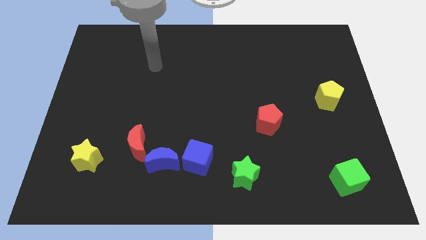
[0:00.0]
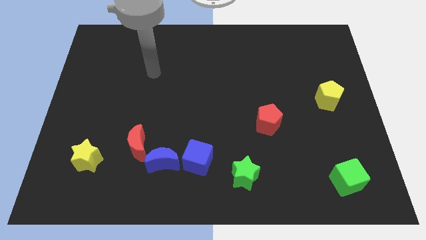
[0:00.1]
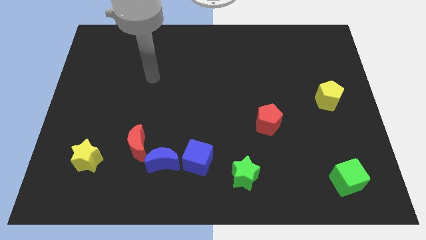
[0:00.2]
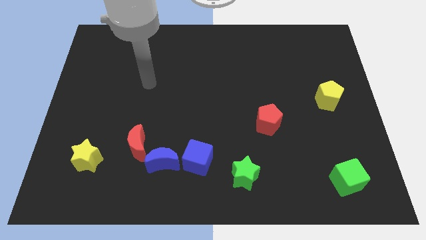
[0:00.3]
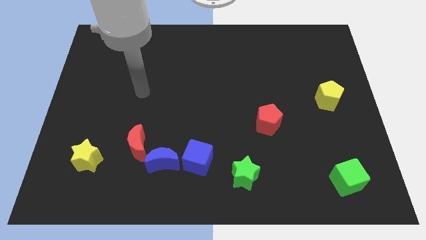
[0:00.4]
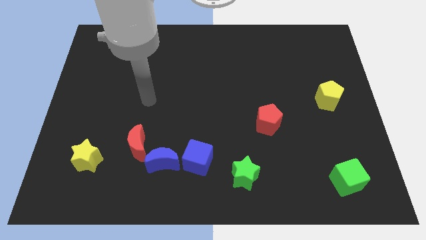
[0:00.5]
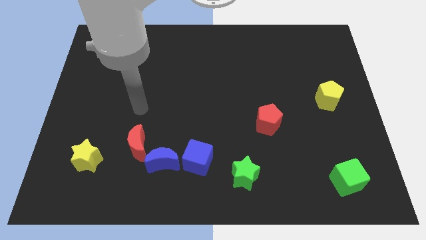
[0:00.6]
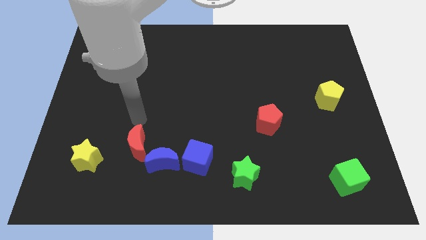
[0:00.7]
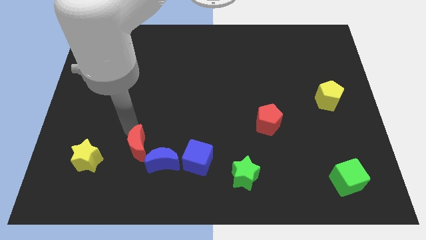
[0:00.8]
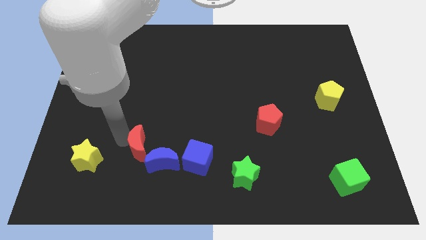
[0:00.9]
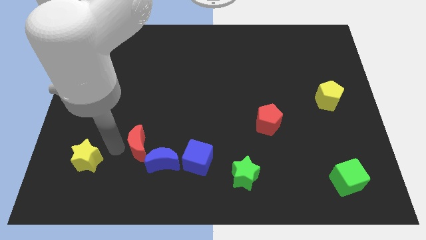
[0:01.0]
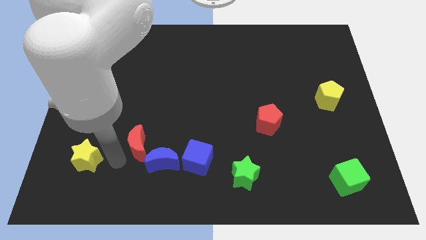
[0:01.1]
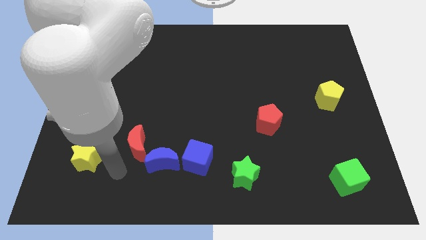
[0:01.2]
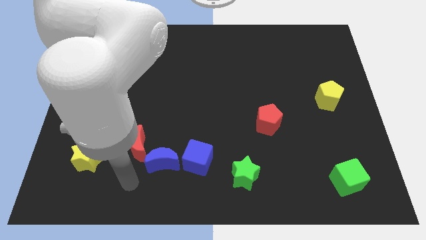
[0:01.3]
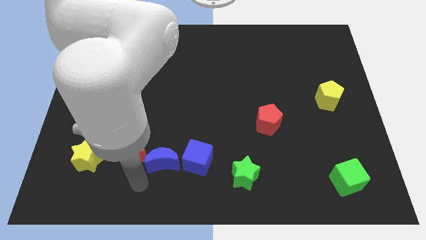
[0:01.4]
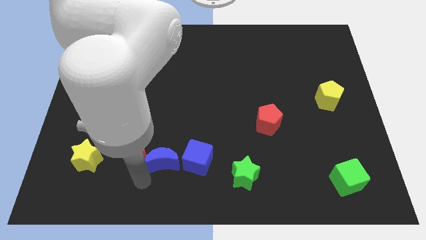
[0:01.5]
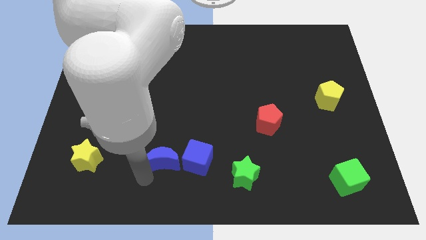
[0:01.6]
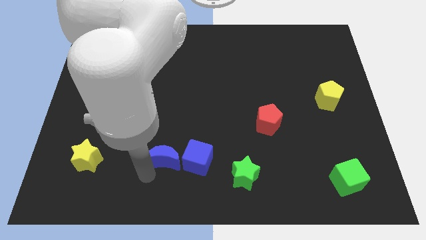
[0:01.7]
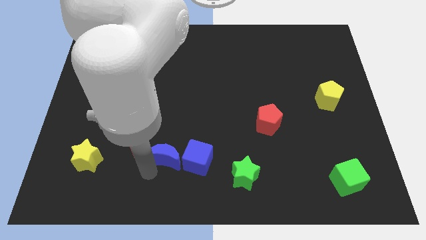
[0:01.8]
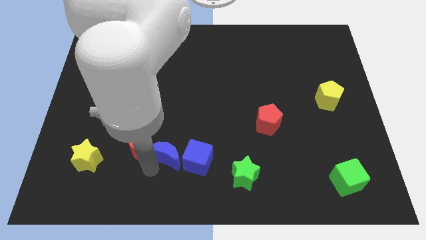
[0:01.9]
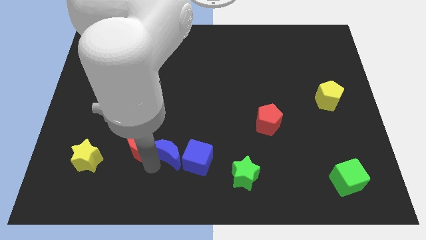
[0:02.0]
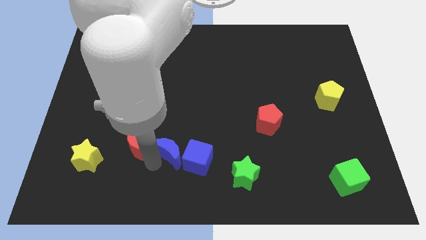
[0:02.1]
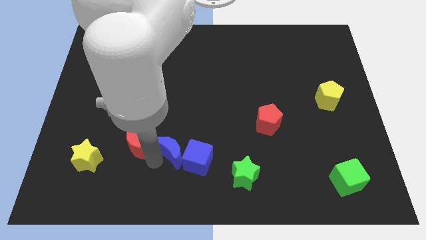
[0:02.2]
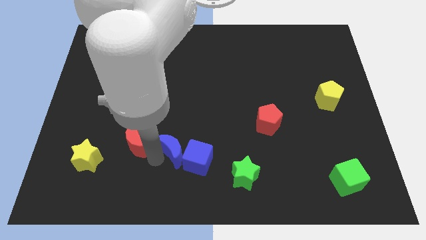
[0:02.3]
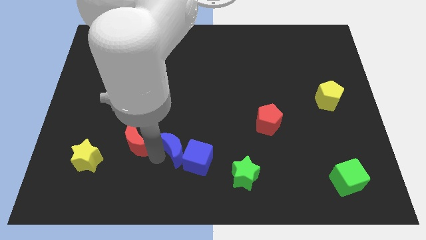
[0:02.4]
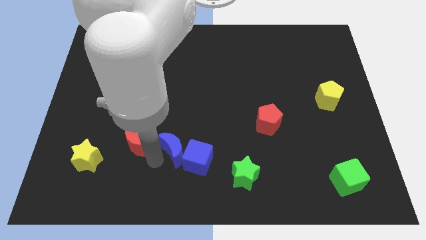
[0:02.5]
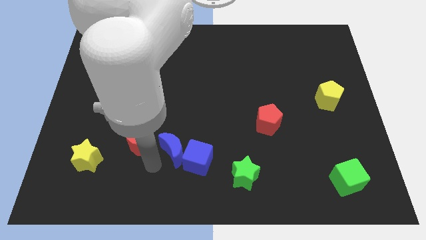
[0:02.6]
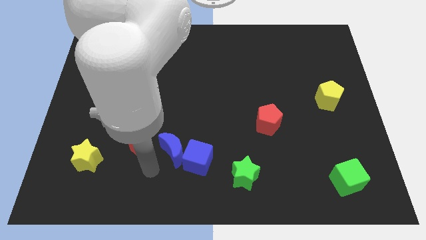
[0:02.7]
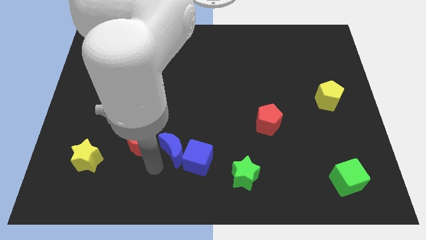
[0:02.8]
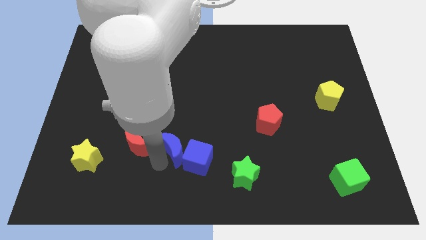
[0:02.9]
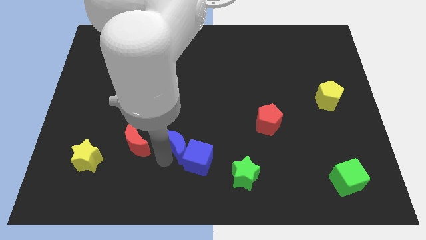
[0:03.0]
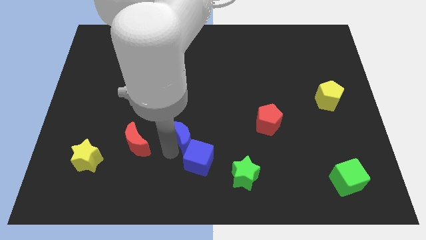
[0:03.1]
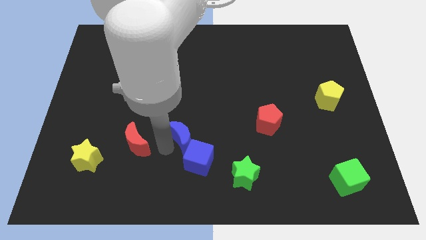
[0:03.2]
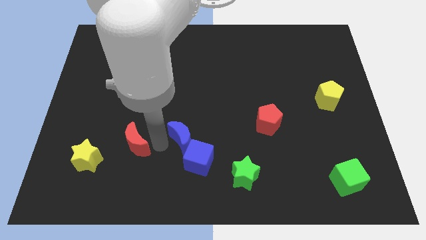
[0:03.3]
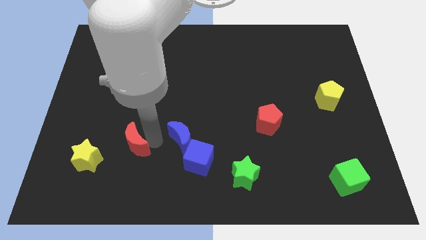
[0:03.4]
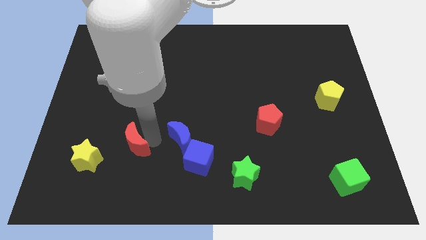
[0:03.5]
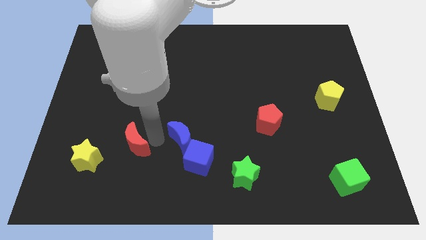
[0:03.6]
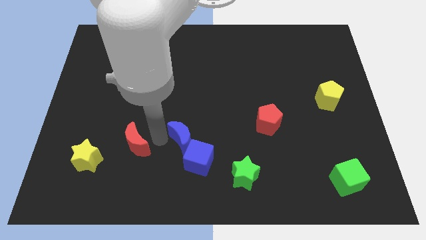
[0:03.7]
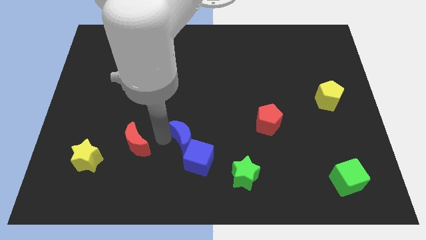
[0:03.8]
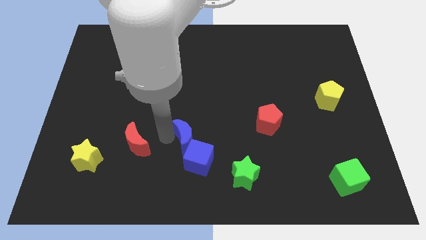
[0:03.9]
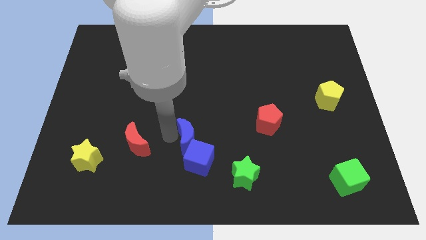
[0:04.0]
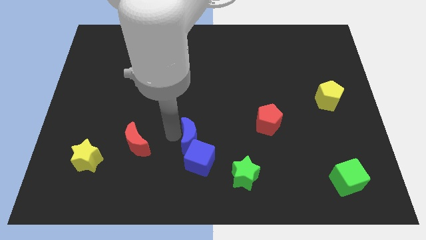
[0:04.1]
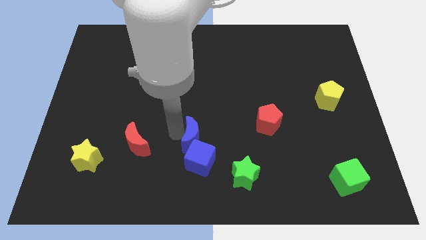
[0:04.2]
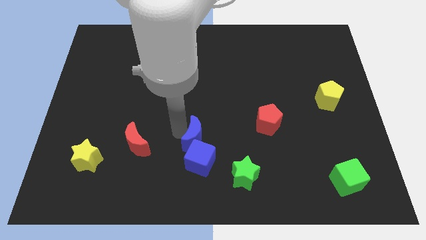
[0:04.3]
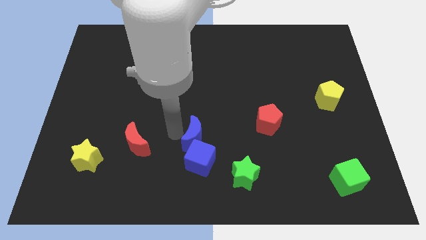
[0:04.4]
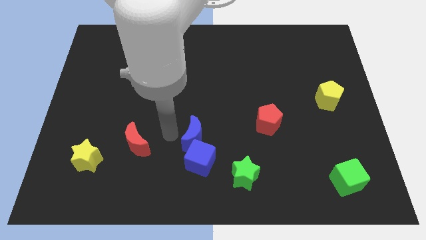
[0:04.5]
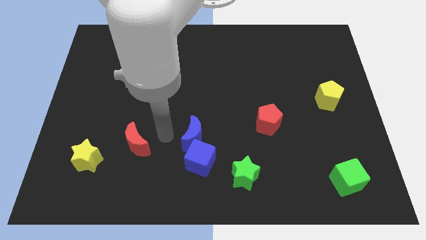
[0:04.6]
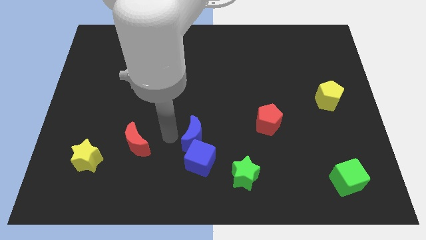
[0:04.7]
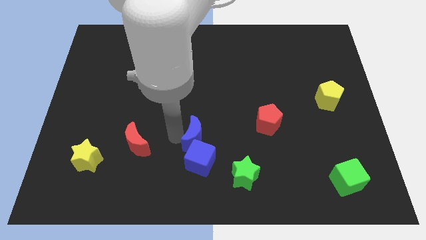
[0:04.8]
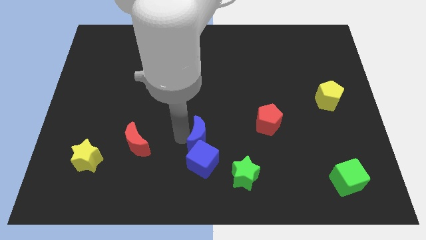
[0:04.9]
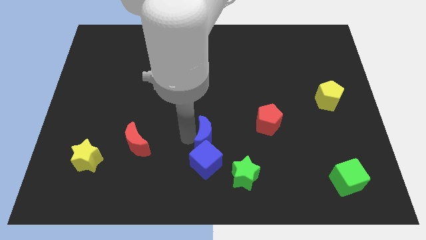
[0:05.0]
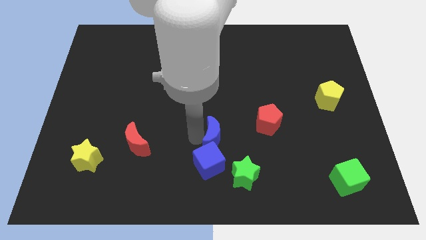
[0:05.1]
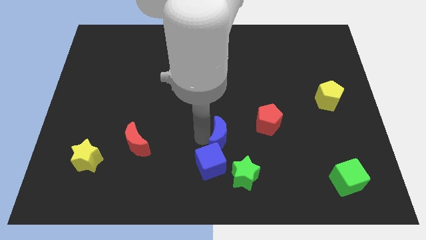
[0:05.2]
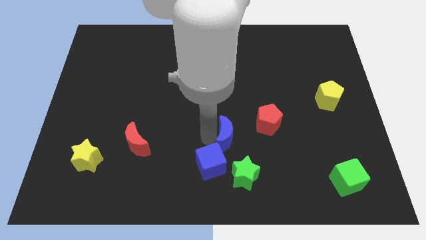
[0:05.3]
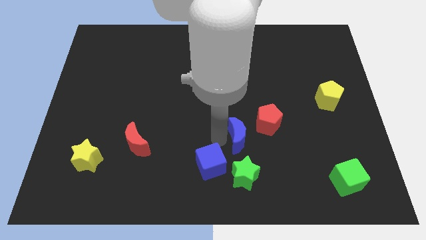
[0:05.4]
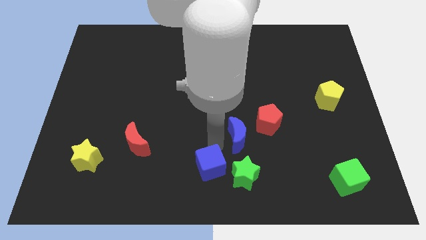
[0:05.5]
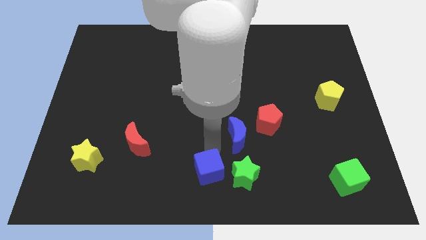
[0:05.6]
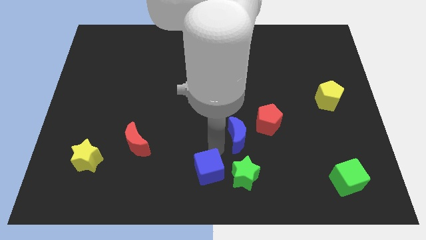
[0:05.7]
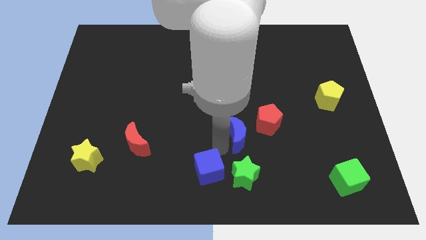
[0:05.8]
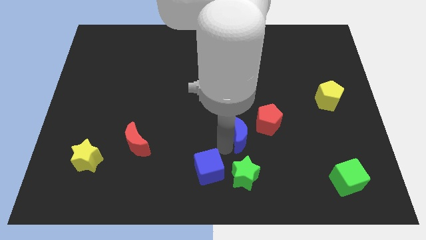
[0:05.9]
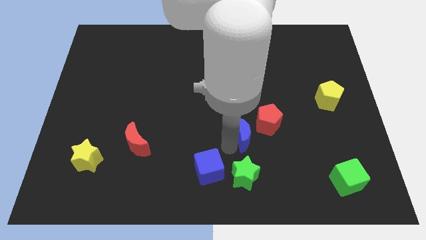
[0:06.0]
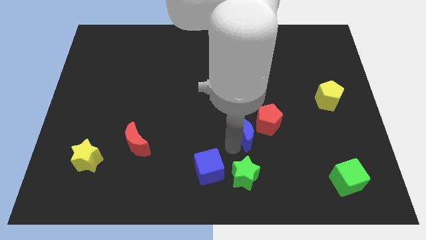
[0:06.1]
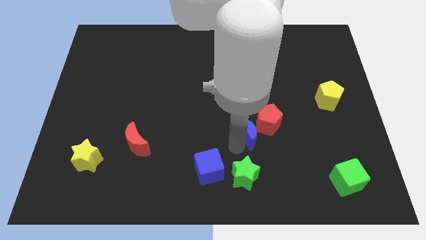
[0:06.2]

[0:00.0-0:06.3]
push the blue moon towards the red pentagon

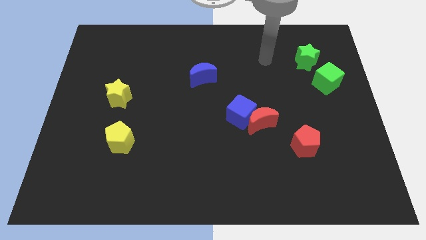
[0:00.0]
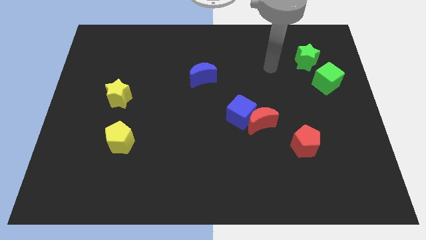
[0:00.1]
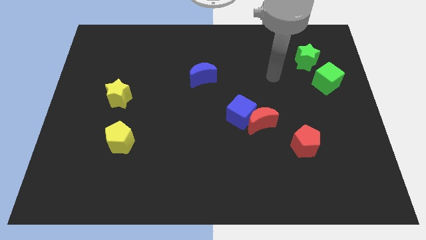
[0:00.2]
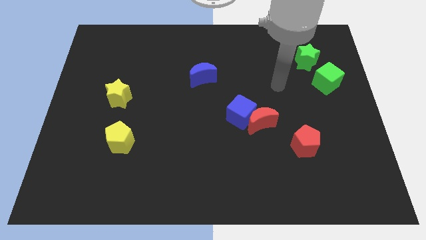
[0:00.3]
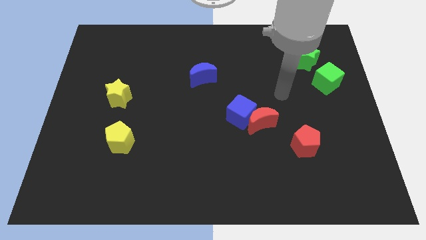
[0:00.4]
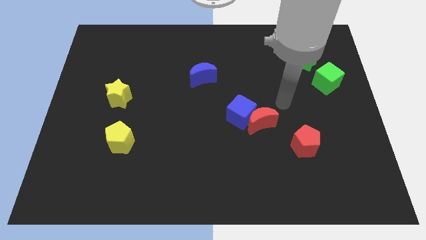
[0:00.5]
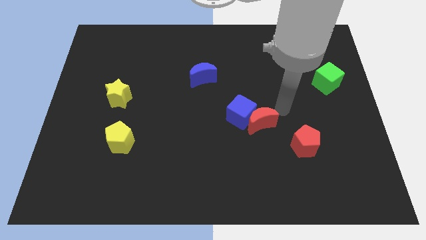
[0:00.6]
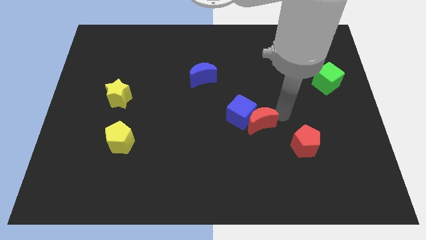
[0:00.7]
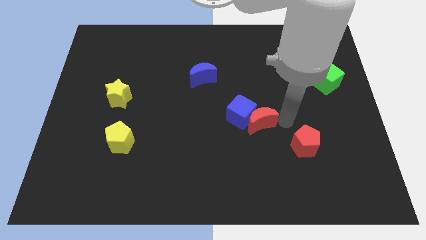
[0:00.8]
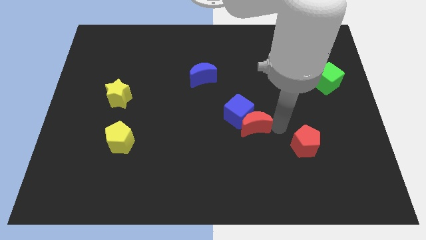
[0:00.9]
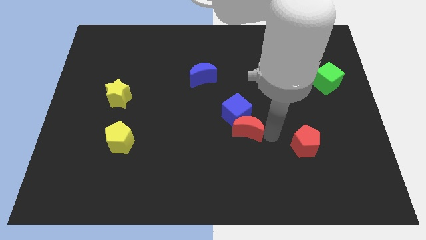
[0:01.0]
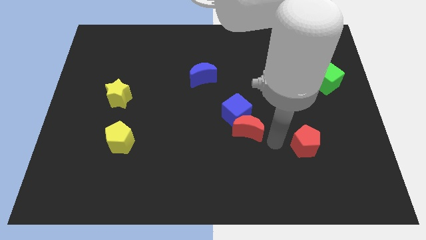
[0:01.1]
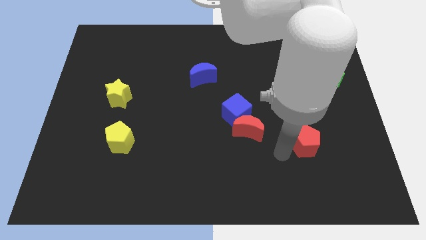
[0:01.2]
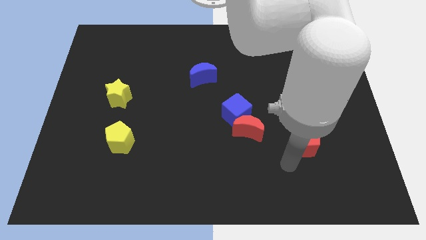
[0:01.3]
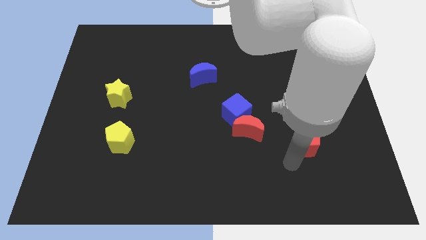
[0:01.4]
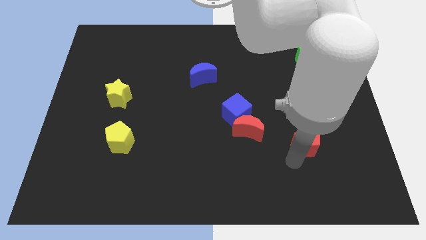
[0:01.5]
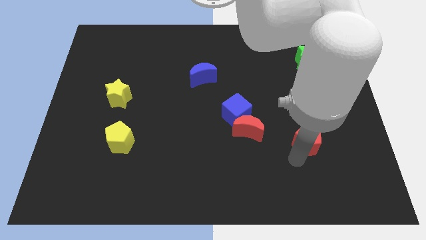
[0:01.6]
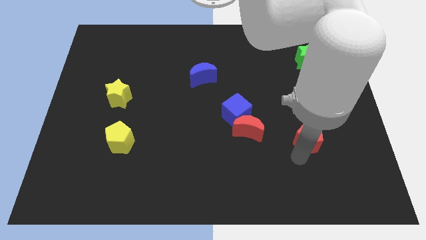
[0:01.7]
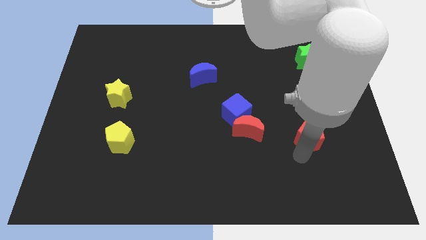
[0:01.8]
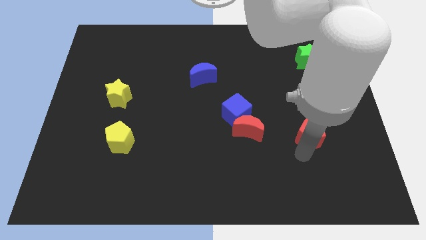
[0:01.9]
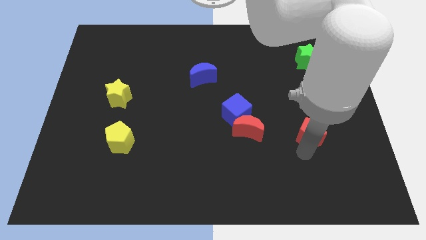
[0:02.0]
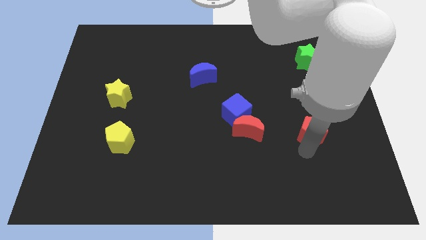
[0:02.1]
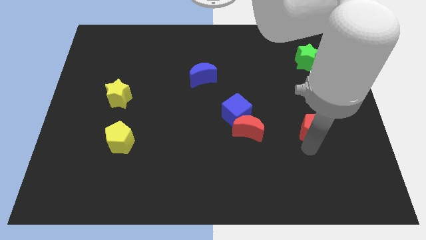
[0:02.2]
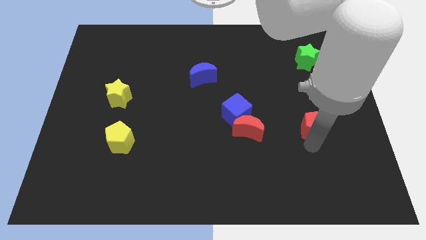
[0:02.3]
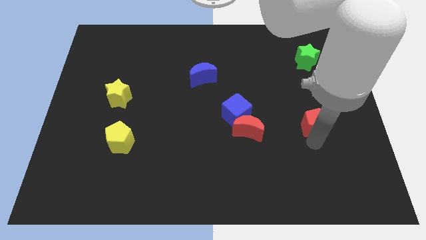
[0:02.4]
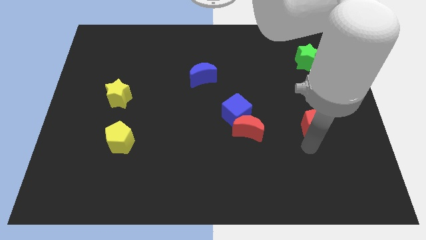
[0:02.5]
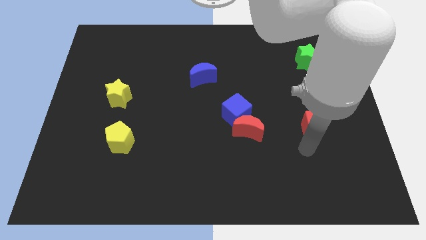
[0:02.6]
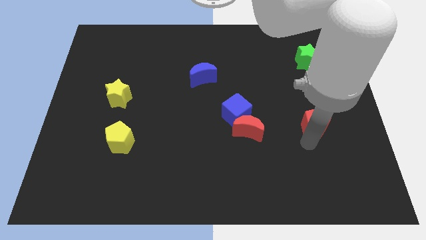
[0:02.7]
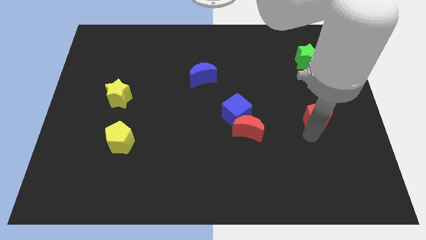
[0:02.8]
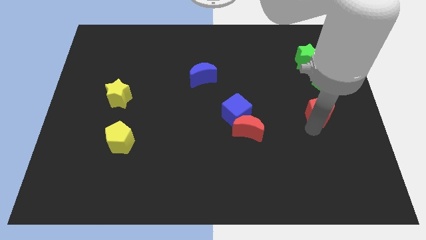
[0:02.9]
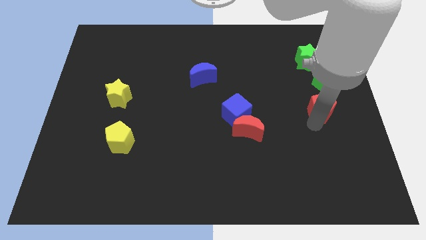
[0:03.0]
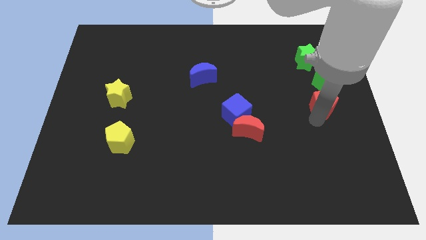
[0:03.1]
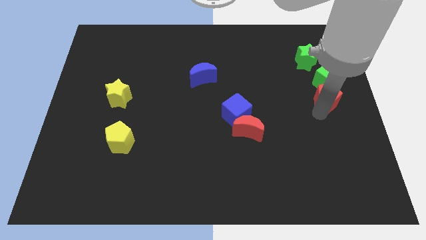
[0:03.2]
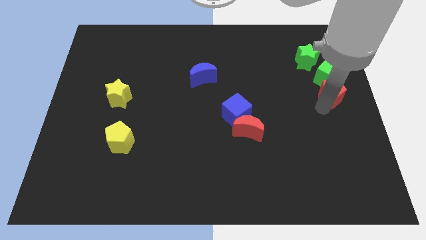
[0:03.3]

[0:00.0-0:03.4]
put the red pentagon close to the green cube
